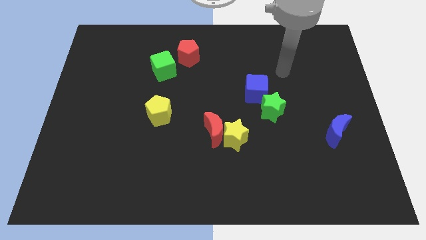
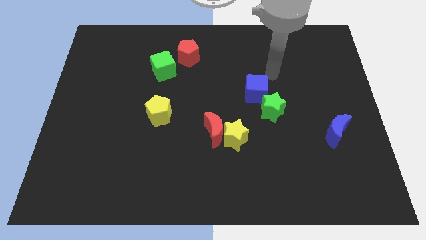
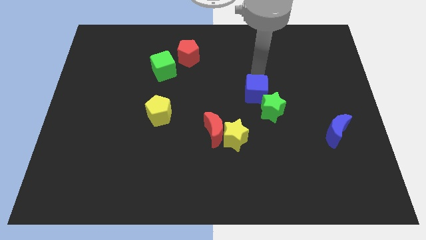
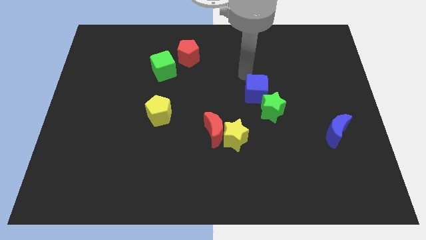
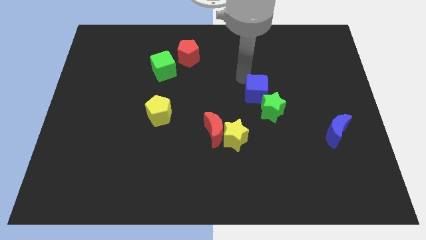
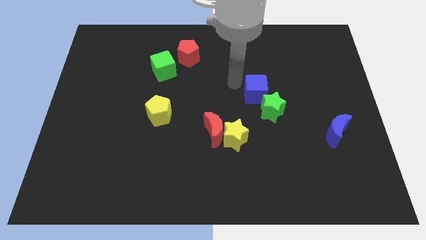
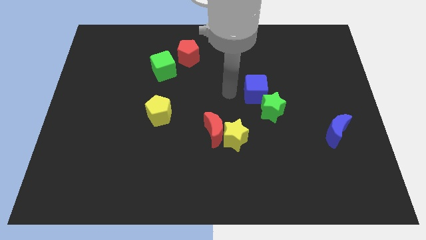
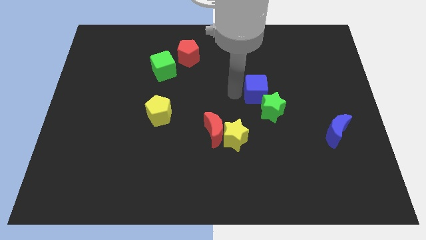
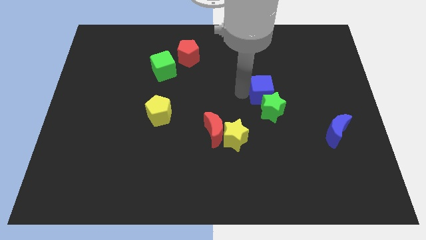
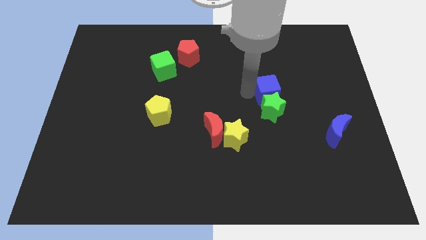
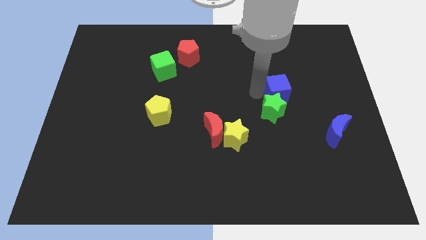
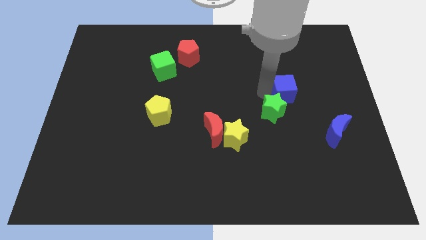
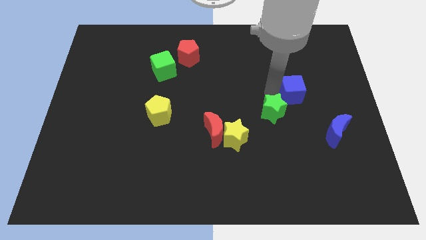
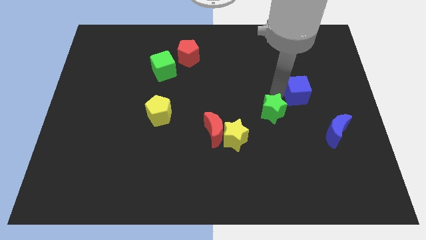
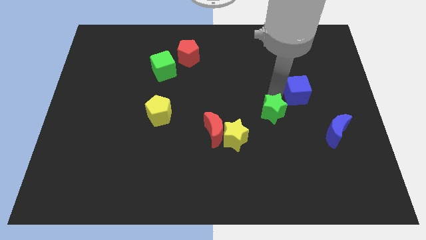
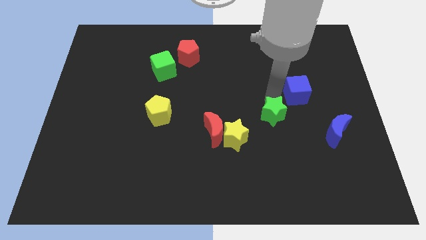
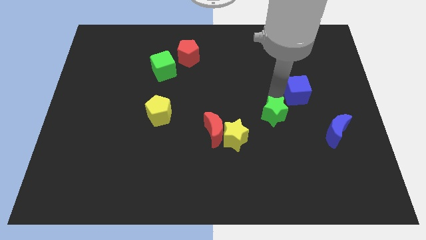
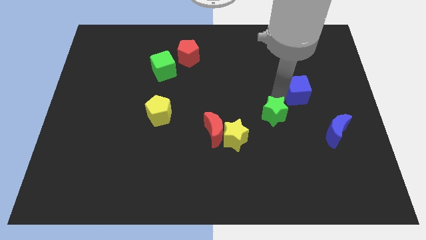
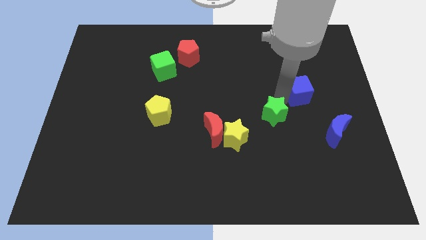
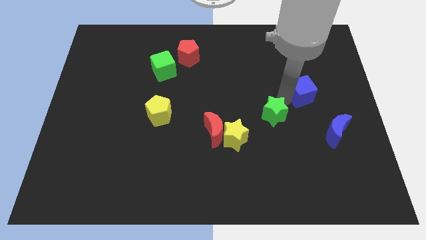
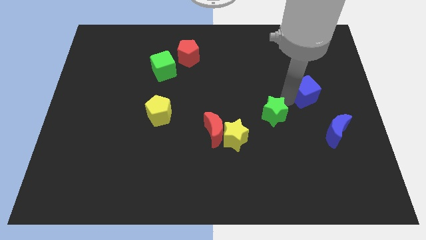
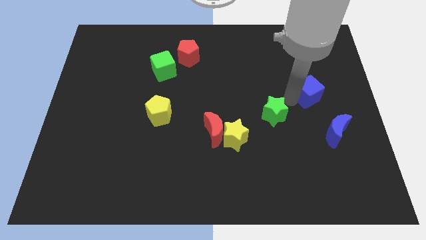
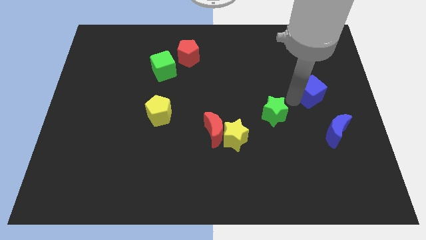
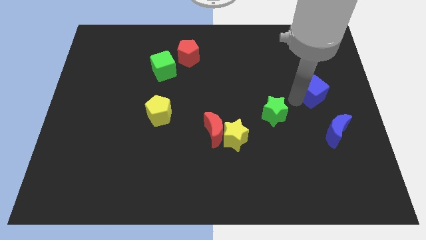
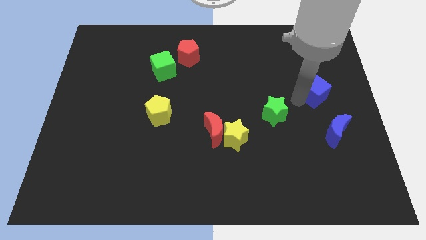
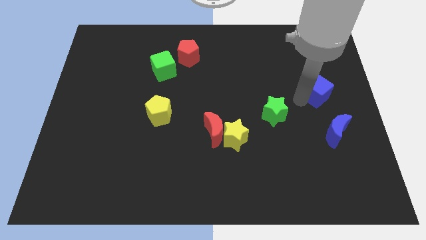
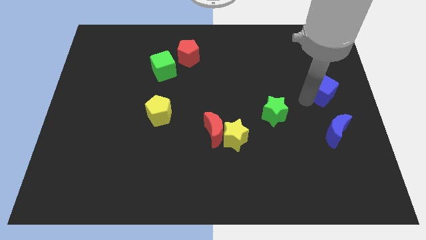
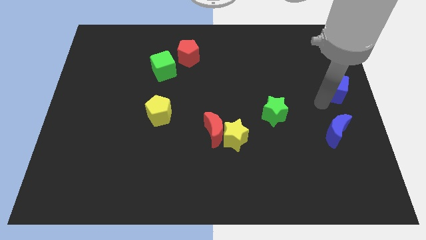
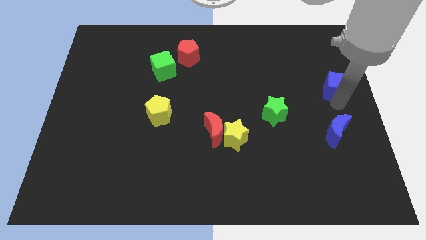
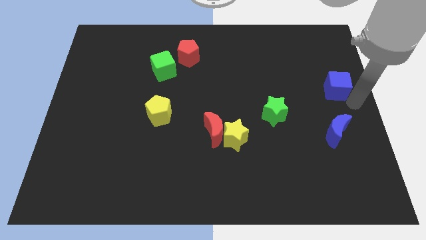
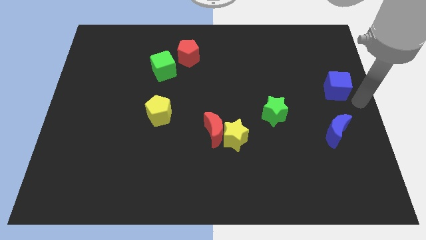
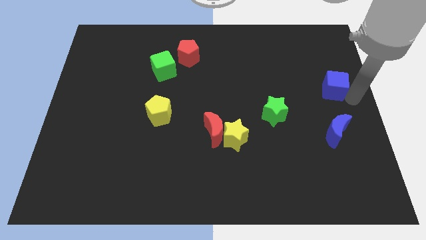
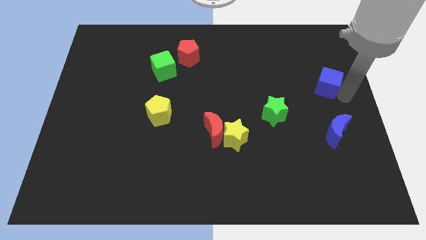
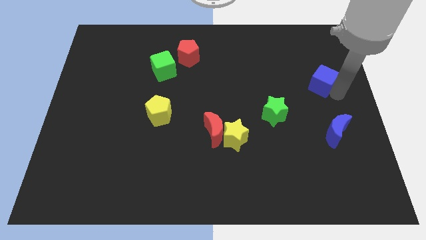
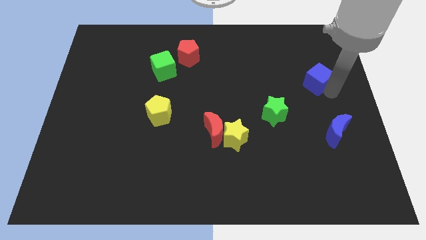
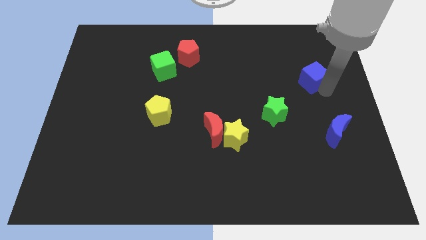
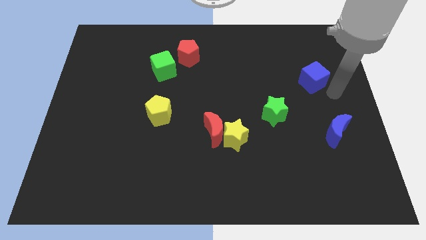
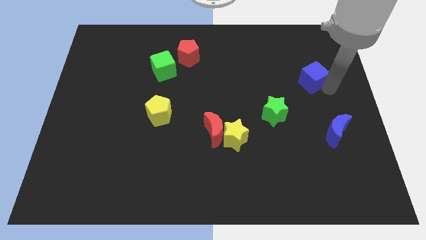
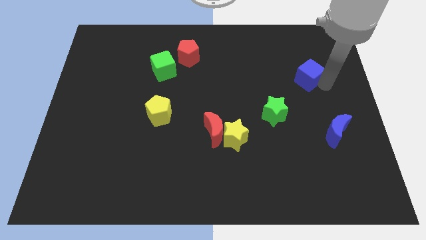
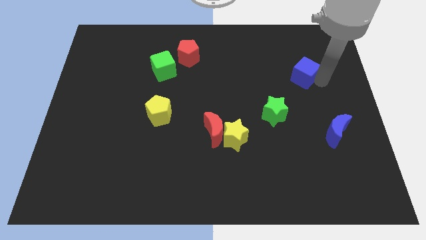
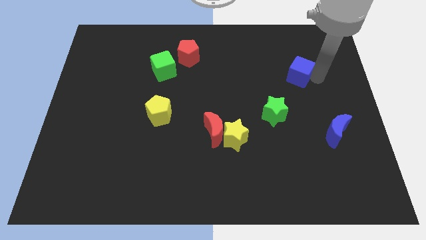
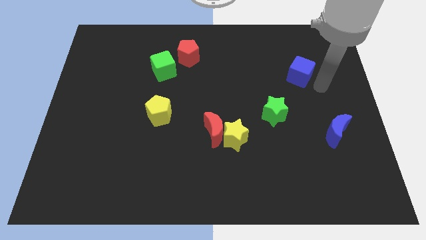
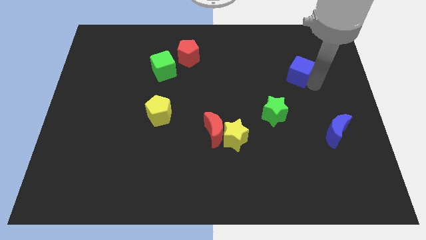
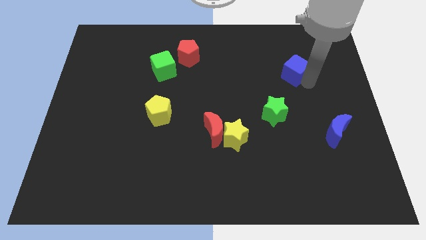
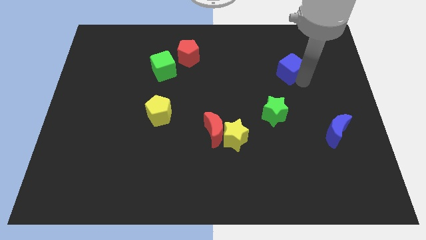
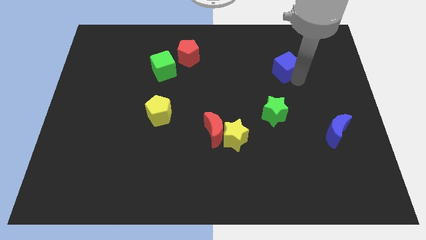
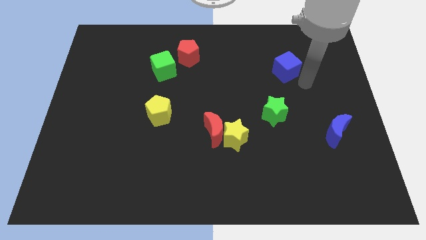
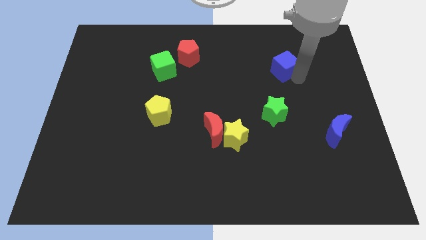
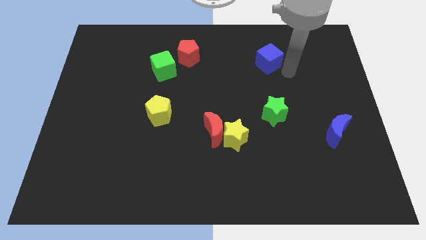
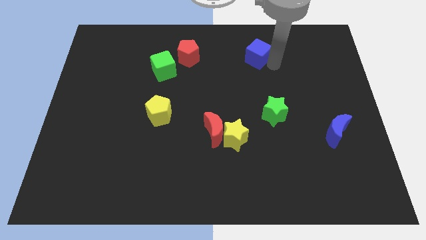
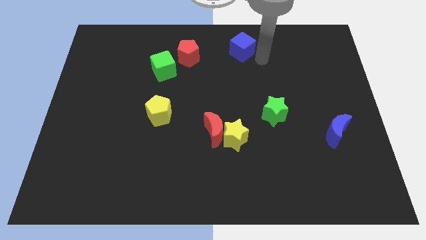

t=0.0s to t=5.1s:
put the blue cube to the top side

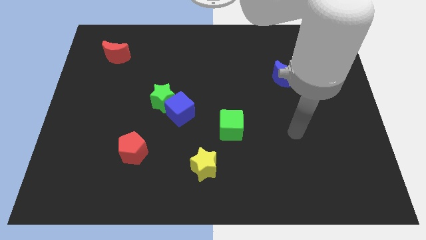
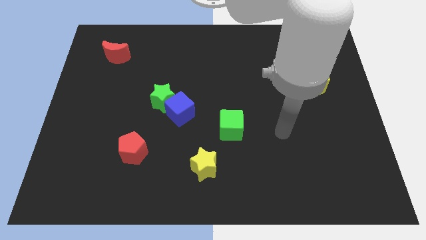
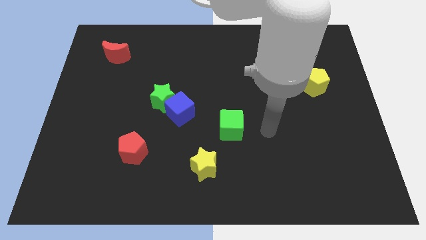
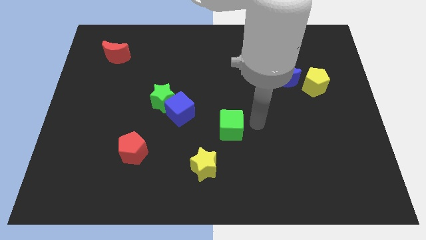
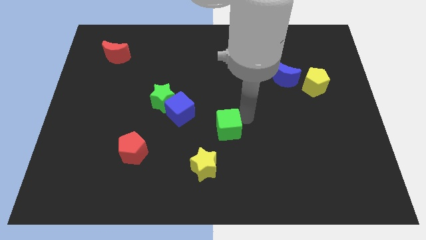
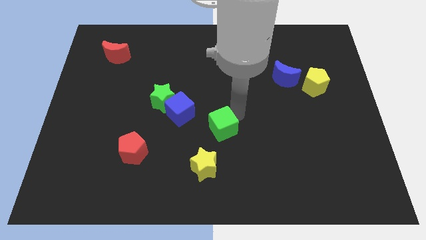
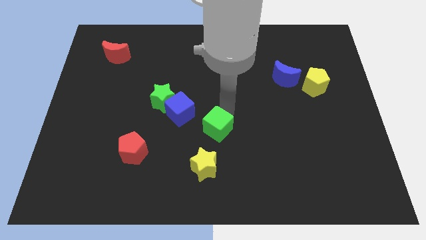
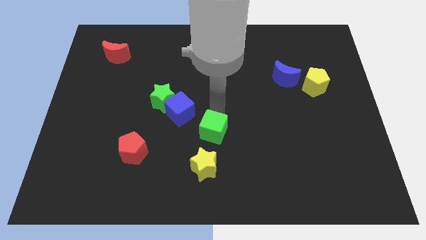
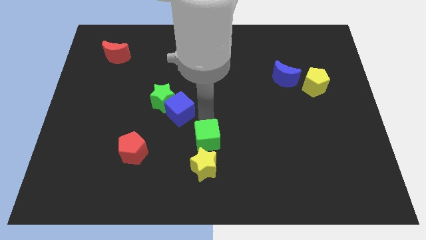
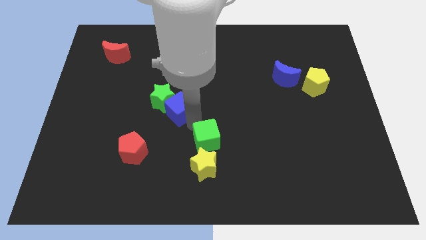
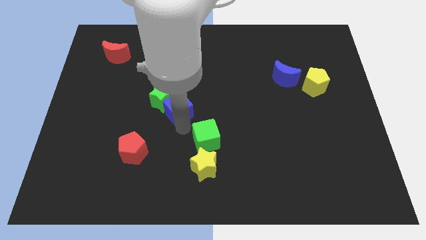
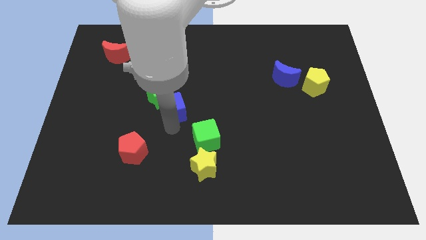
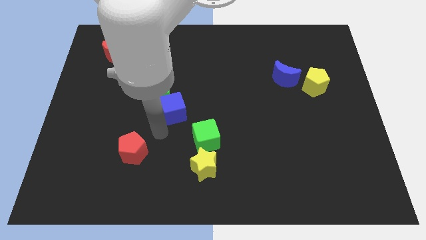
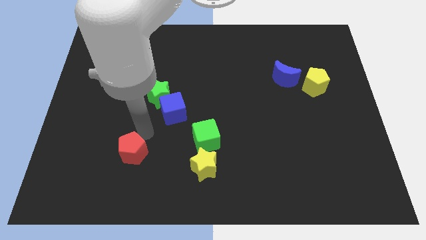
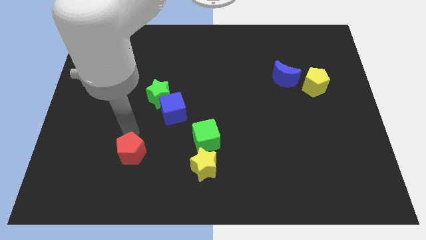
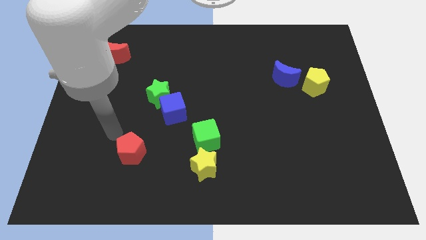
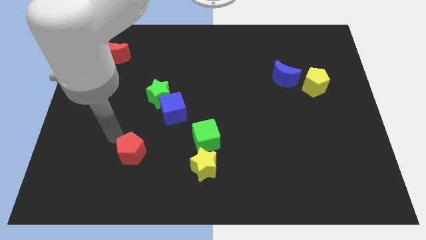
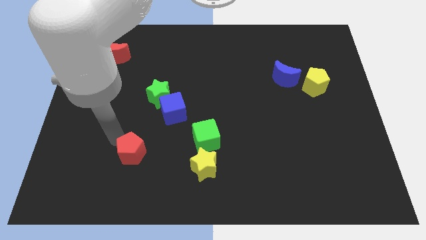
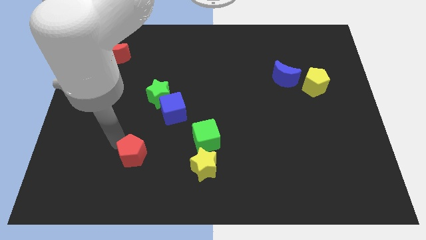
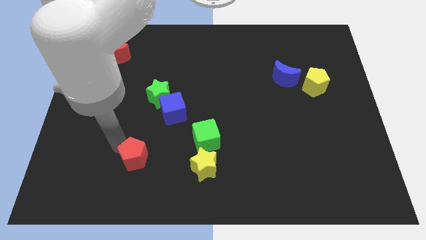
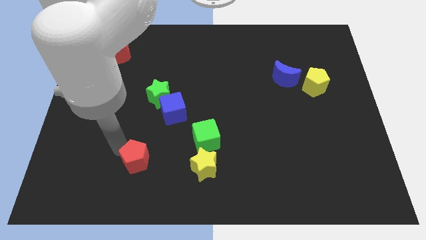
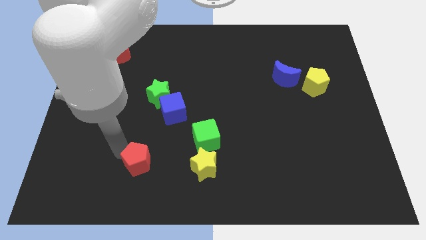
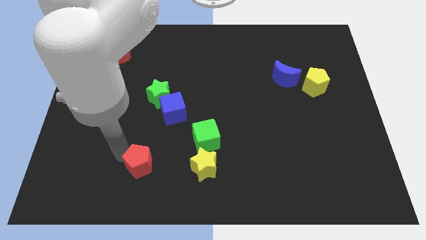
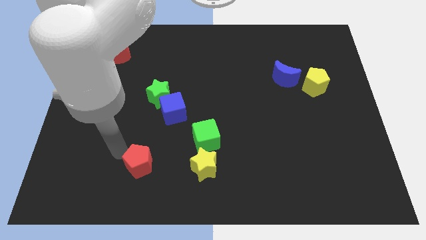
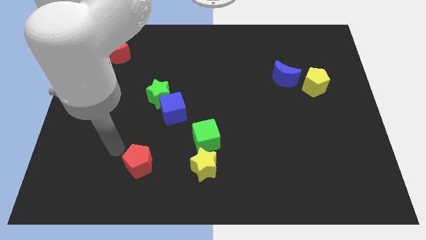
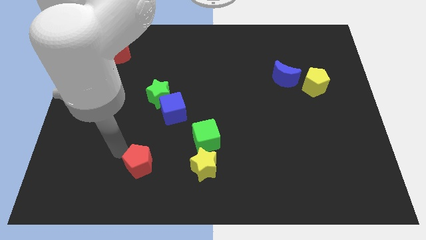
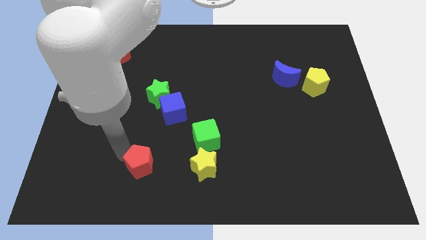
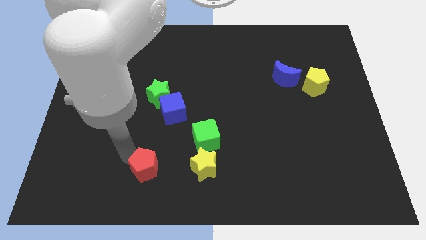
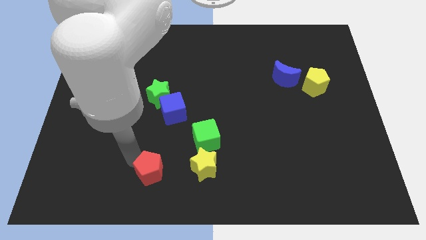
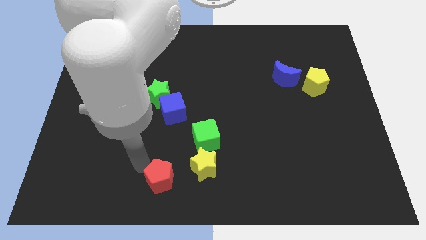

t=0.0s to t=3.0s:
put the red pentagon to the bottom
